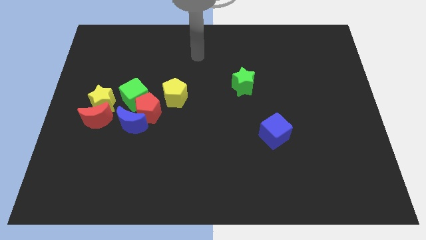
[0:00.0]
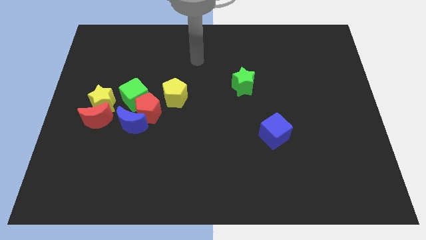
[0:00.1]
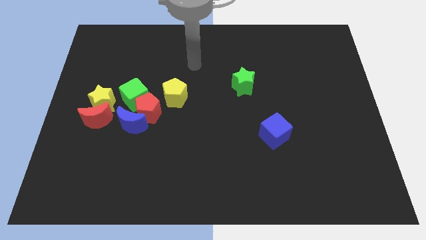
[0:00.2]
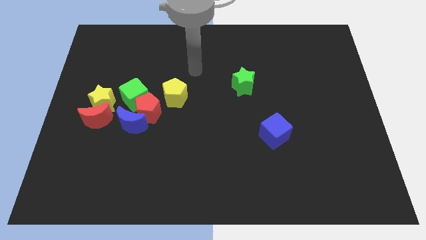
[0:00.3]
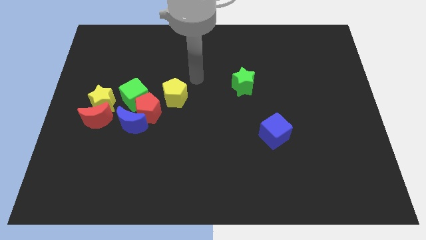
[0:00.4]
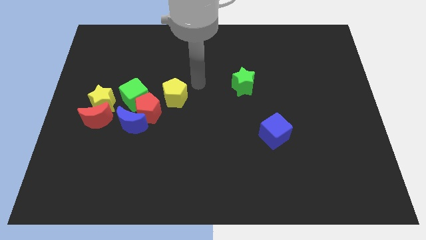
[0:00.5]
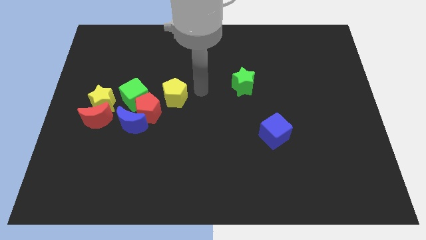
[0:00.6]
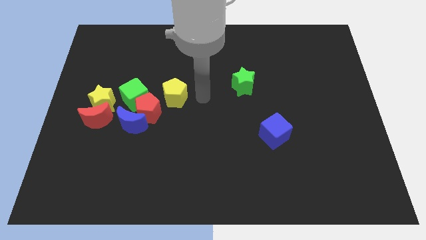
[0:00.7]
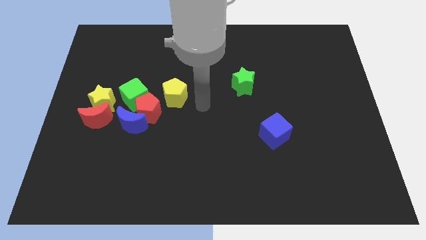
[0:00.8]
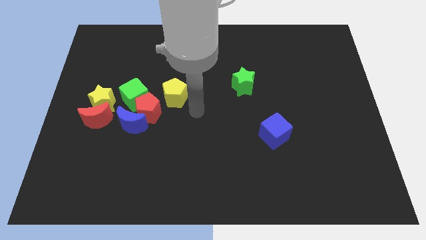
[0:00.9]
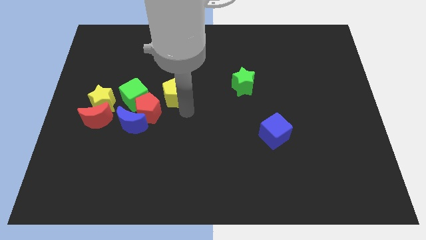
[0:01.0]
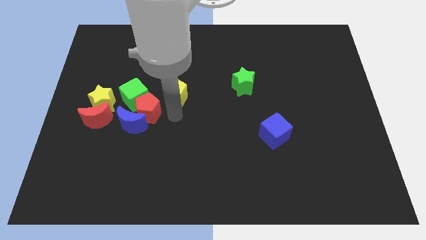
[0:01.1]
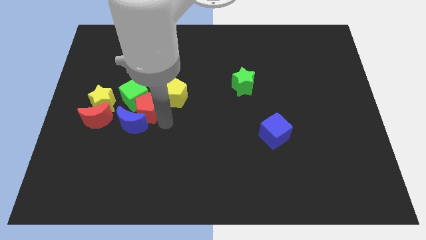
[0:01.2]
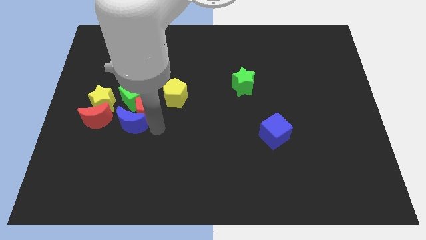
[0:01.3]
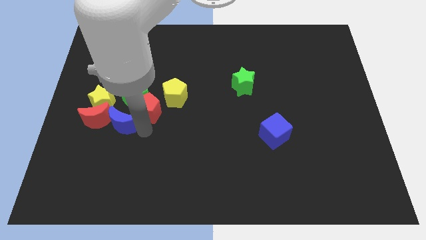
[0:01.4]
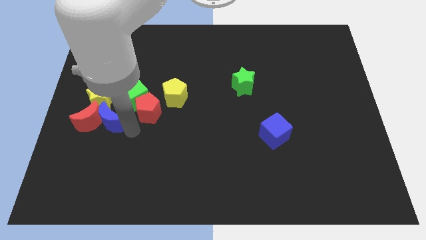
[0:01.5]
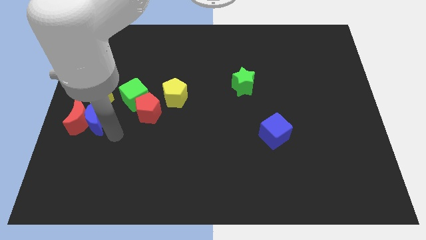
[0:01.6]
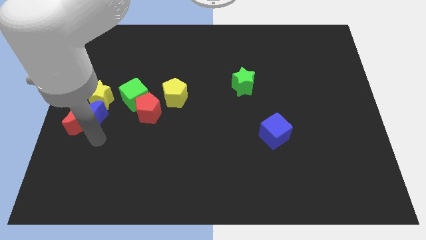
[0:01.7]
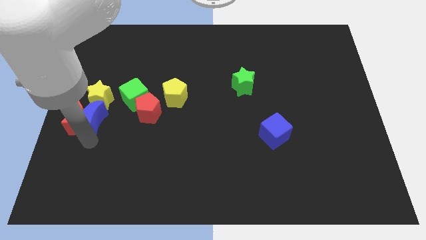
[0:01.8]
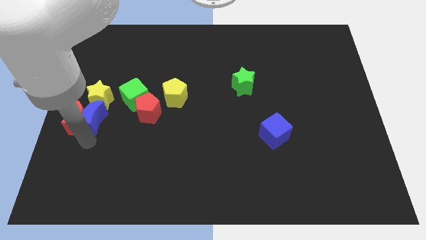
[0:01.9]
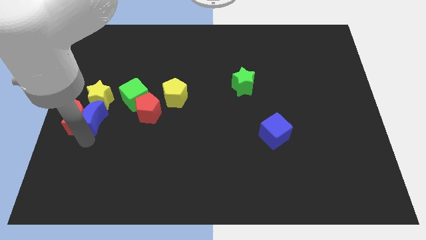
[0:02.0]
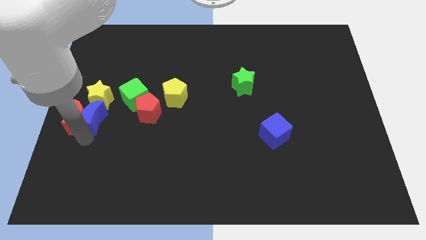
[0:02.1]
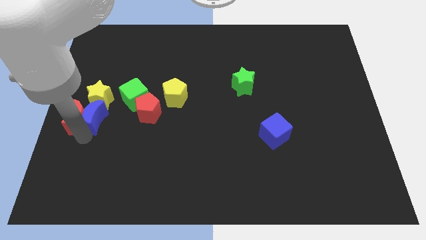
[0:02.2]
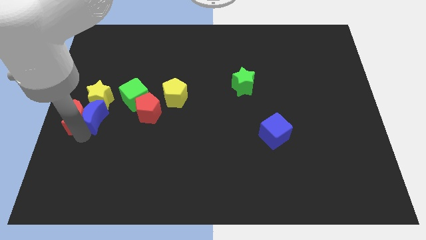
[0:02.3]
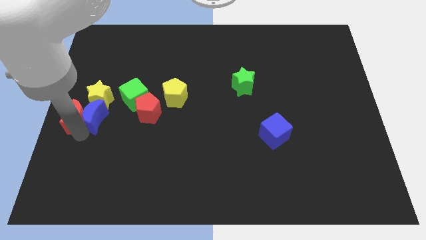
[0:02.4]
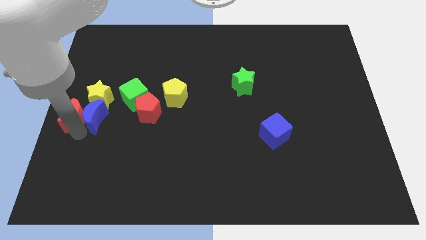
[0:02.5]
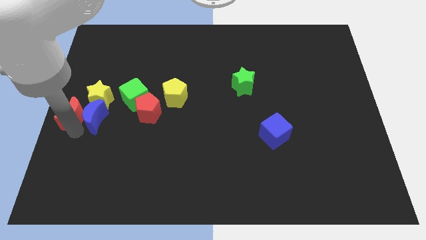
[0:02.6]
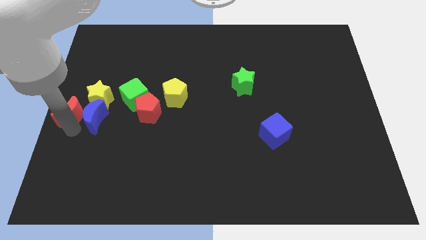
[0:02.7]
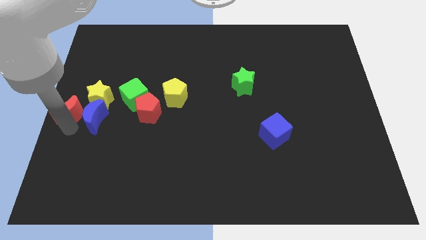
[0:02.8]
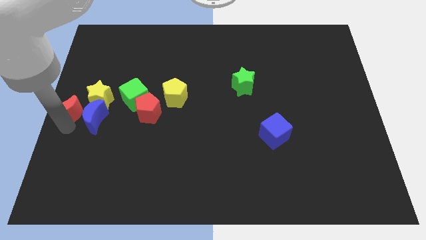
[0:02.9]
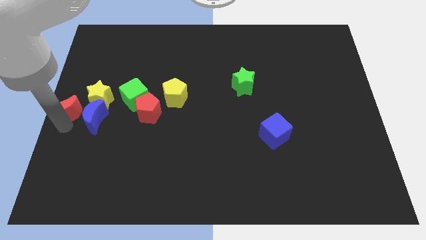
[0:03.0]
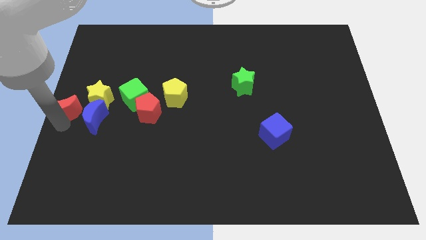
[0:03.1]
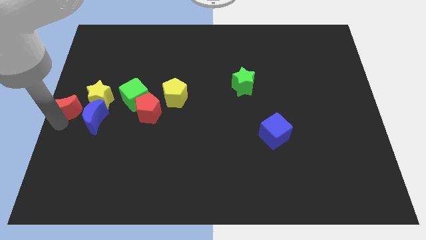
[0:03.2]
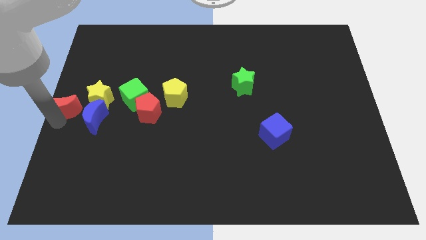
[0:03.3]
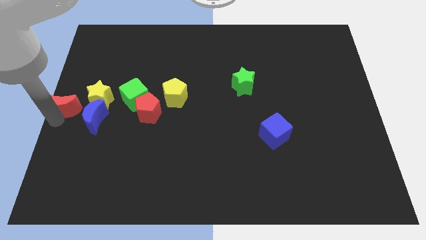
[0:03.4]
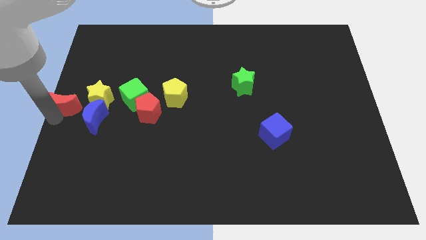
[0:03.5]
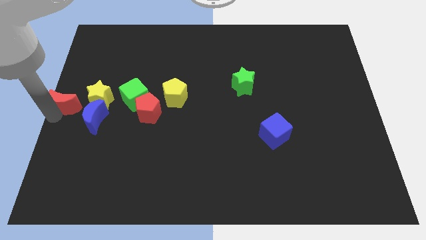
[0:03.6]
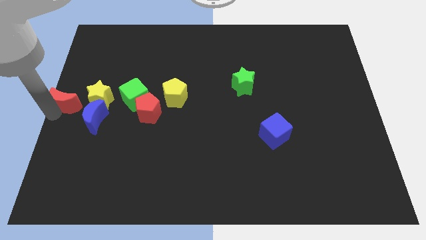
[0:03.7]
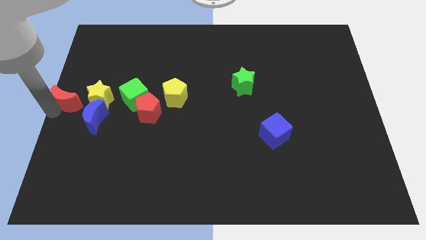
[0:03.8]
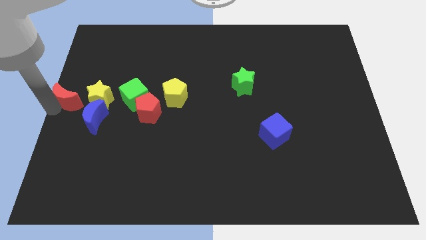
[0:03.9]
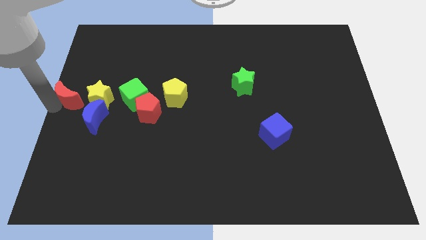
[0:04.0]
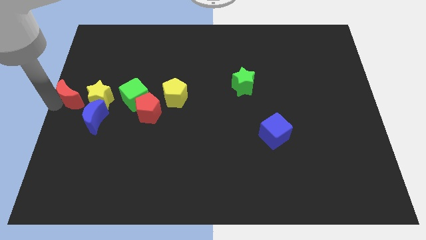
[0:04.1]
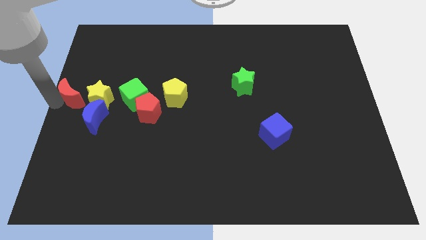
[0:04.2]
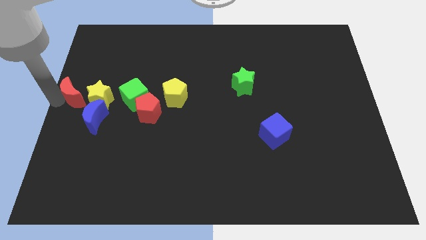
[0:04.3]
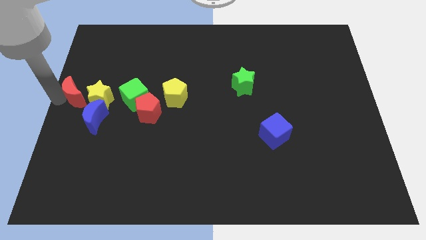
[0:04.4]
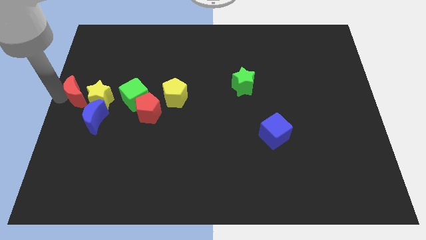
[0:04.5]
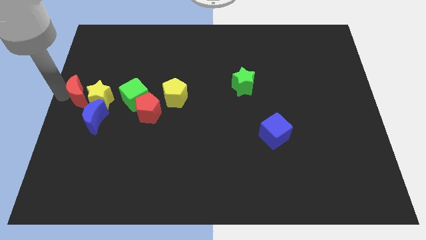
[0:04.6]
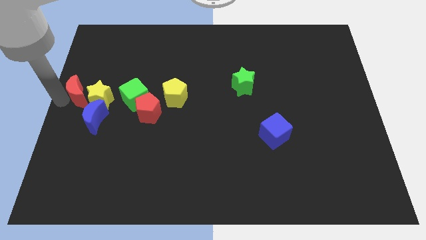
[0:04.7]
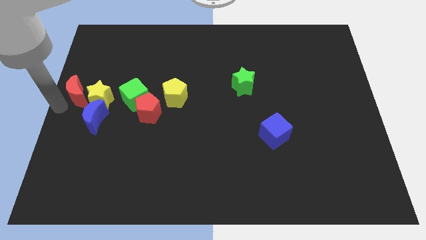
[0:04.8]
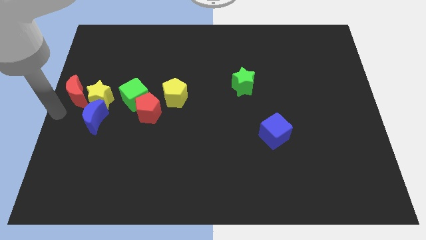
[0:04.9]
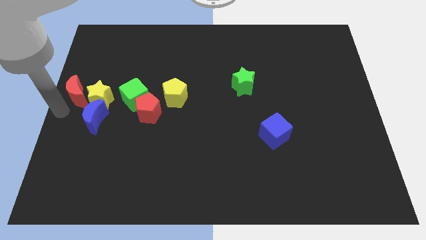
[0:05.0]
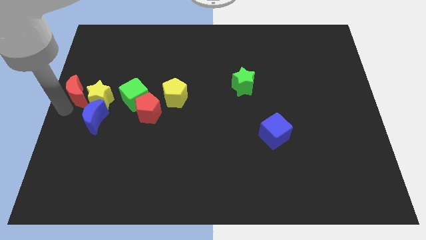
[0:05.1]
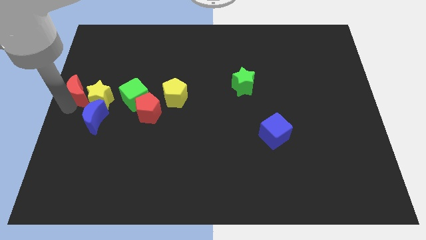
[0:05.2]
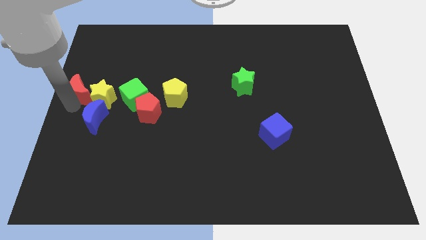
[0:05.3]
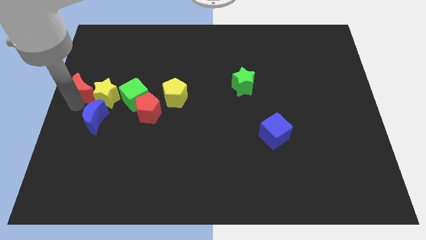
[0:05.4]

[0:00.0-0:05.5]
slightly push the red moon up

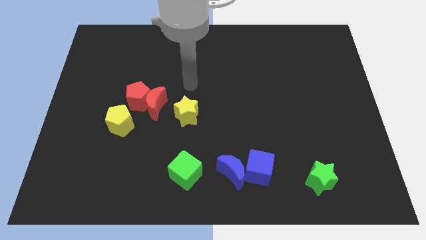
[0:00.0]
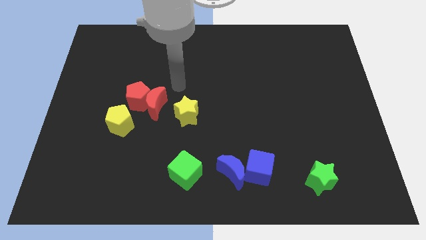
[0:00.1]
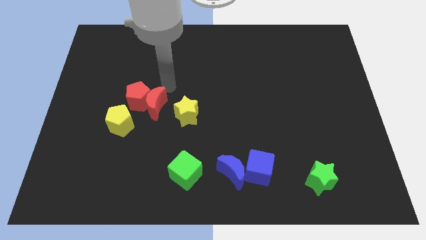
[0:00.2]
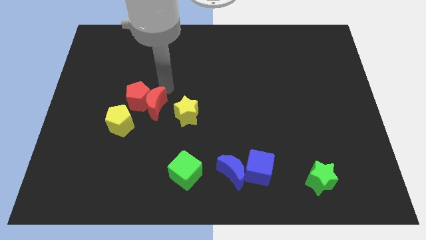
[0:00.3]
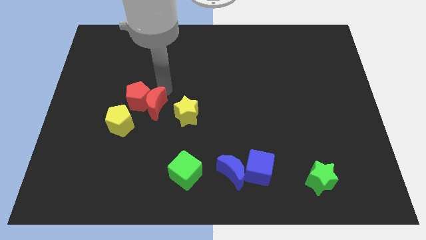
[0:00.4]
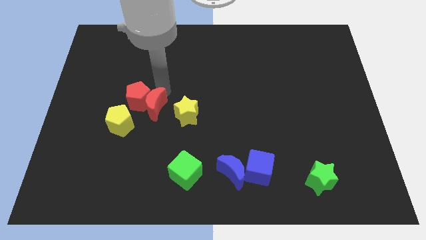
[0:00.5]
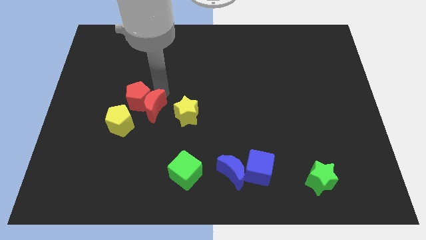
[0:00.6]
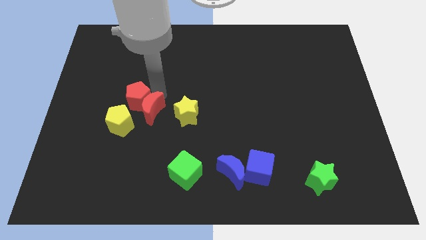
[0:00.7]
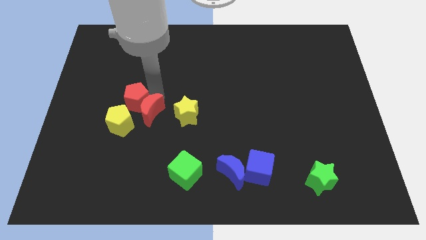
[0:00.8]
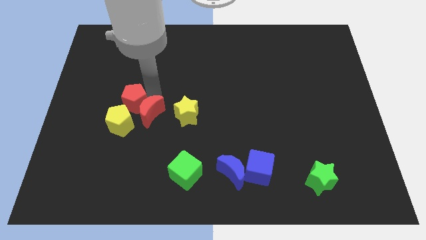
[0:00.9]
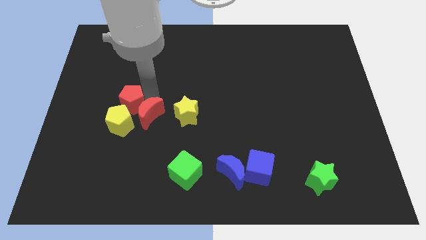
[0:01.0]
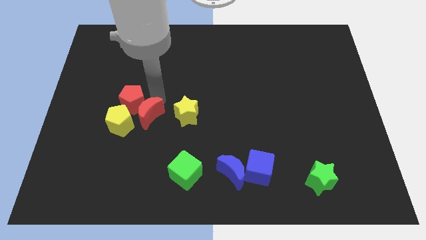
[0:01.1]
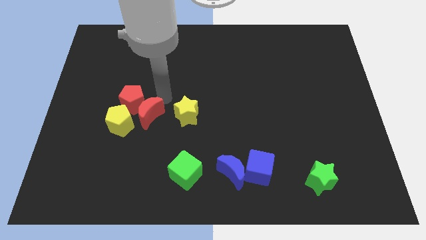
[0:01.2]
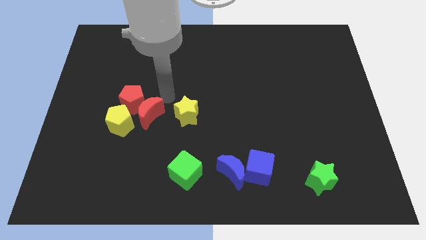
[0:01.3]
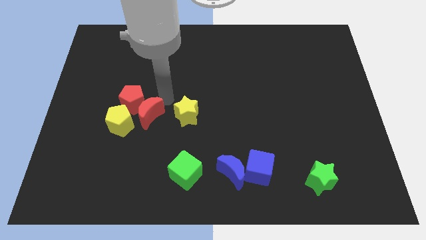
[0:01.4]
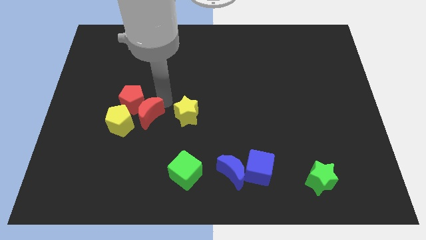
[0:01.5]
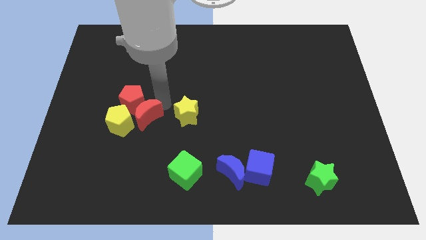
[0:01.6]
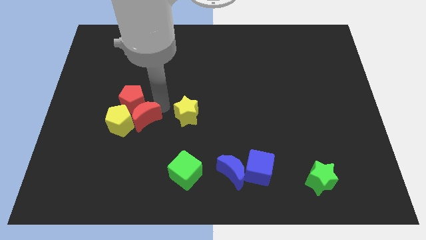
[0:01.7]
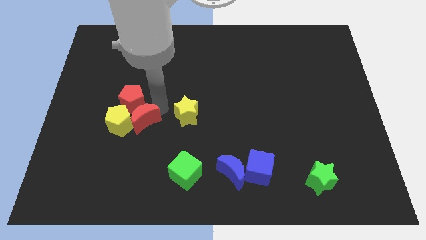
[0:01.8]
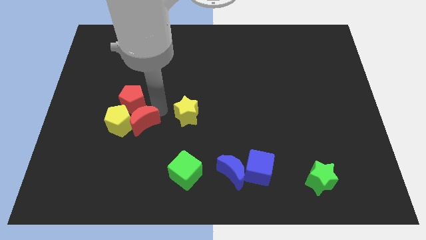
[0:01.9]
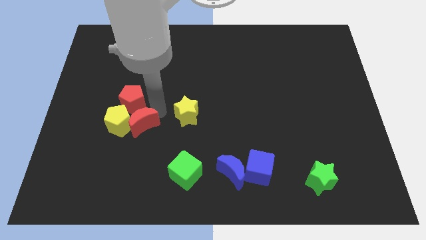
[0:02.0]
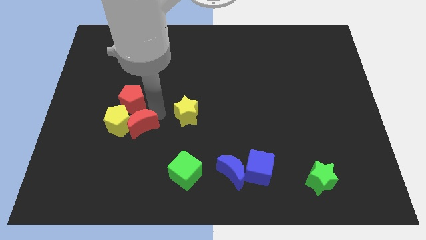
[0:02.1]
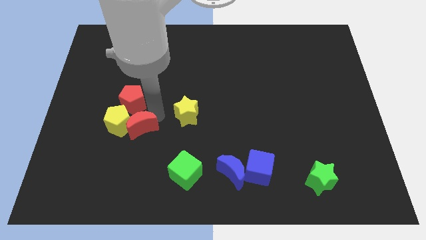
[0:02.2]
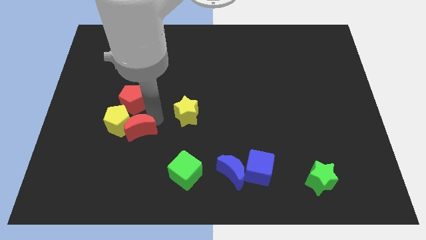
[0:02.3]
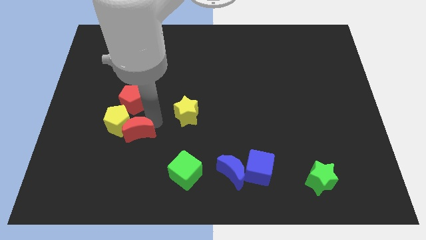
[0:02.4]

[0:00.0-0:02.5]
move the red moon a little diagonally downwards and left

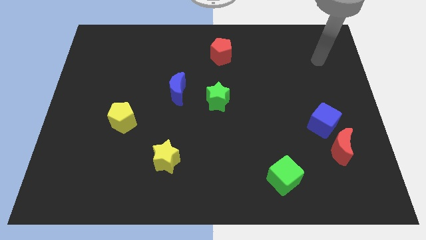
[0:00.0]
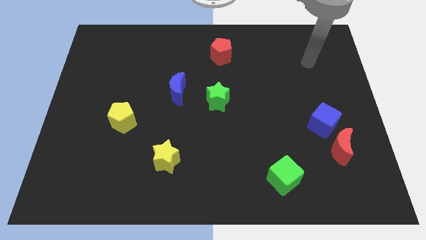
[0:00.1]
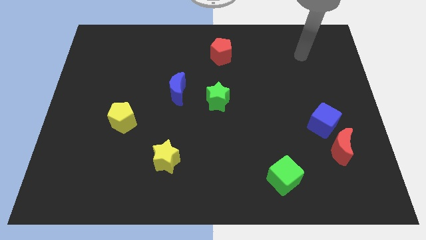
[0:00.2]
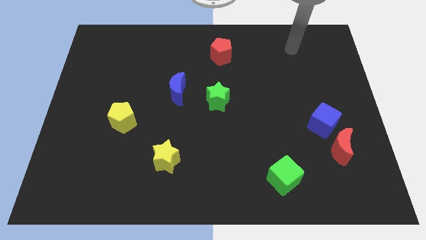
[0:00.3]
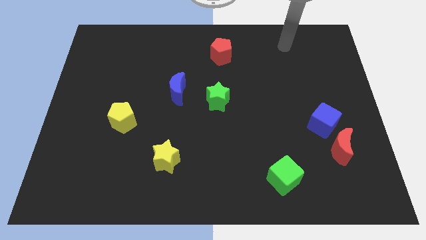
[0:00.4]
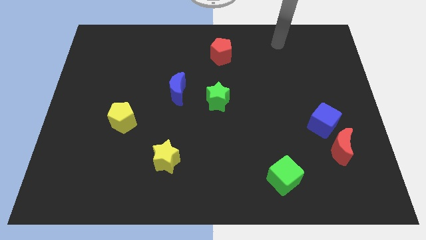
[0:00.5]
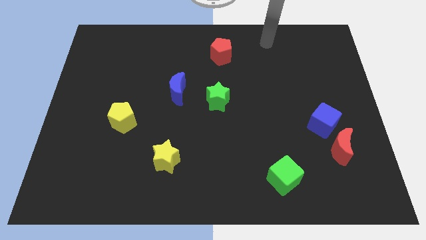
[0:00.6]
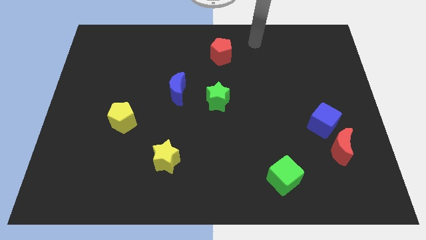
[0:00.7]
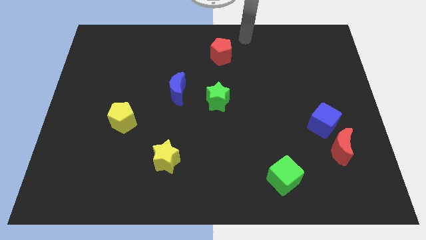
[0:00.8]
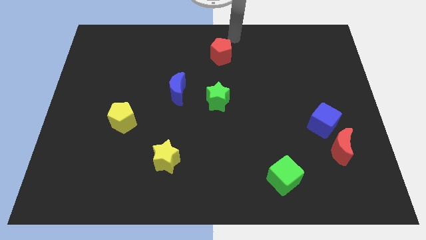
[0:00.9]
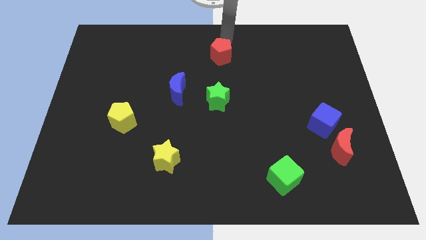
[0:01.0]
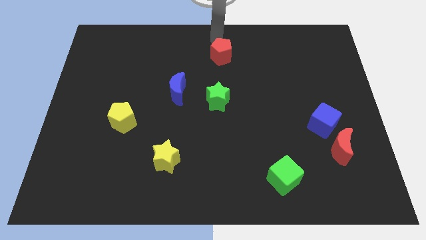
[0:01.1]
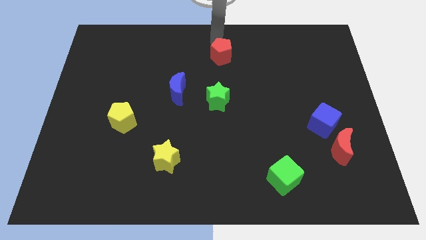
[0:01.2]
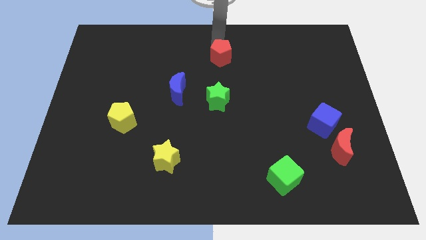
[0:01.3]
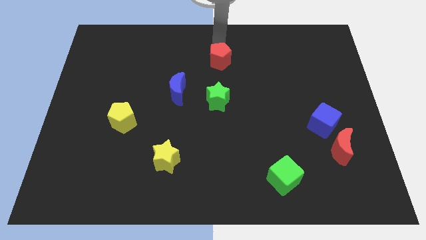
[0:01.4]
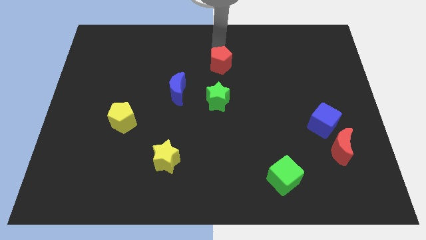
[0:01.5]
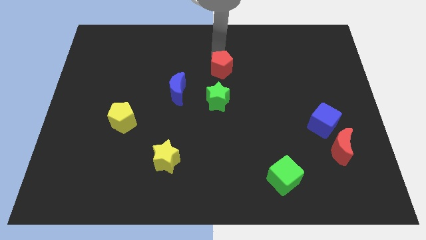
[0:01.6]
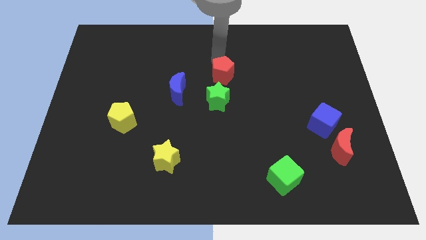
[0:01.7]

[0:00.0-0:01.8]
slide the red pentagon a bit down
